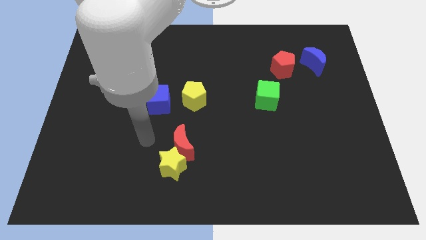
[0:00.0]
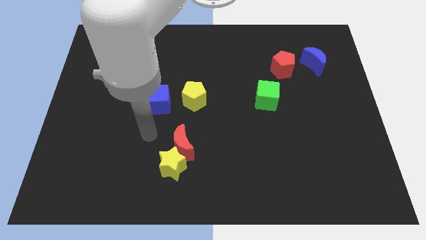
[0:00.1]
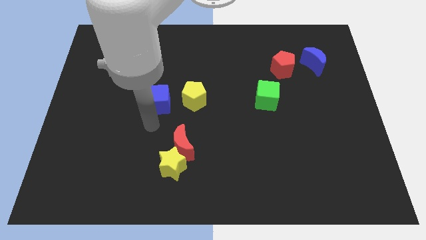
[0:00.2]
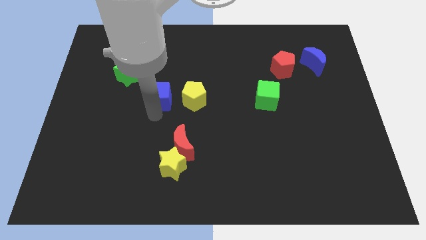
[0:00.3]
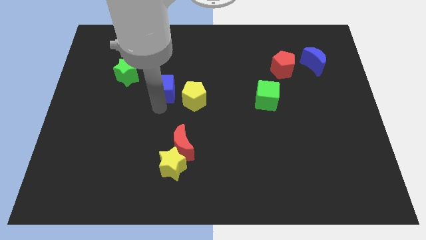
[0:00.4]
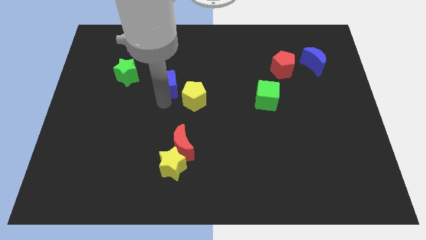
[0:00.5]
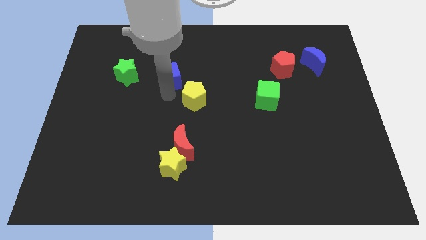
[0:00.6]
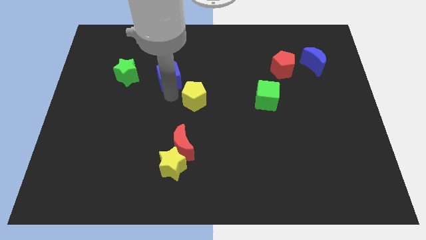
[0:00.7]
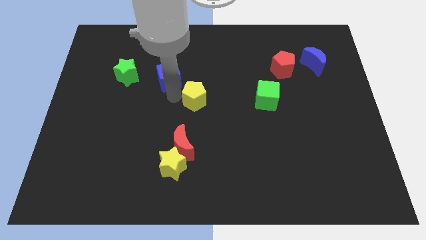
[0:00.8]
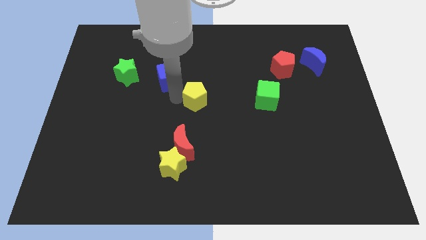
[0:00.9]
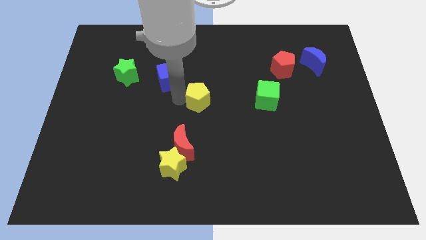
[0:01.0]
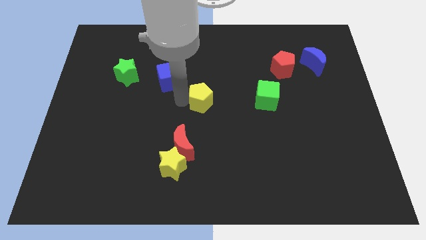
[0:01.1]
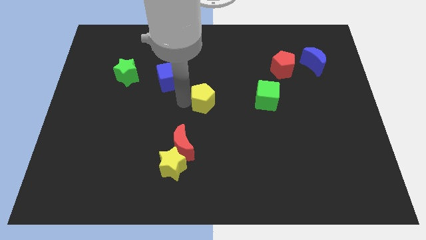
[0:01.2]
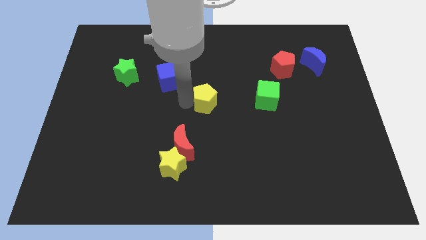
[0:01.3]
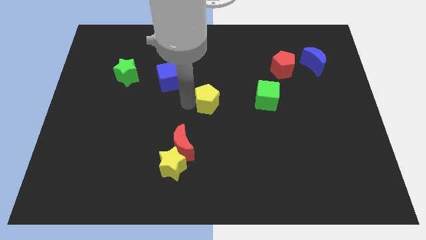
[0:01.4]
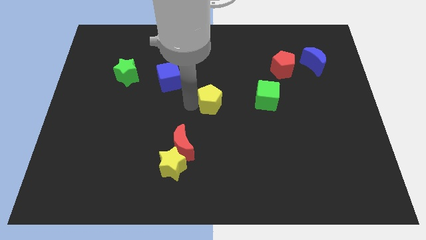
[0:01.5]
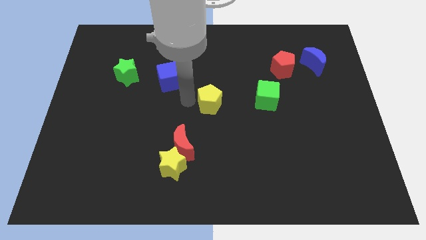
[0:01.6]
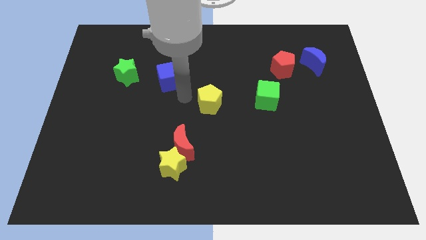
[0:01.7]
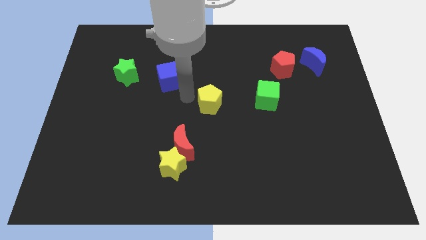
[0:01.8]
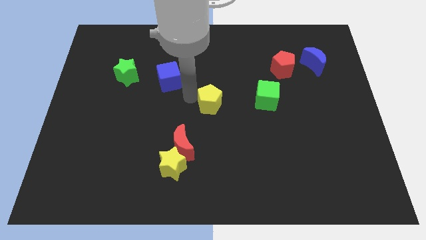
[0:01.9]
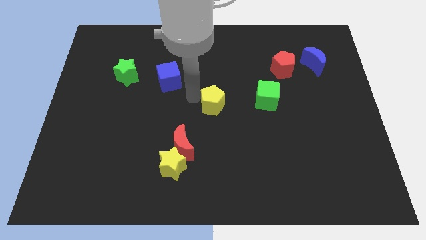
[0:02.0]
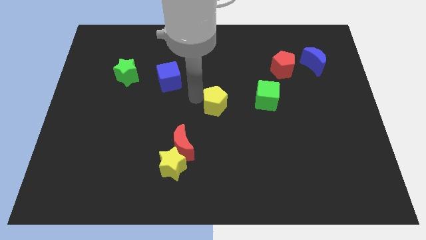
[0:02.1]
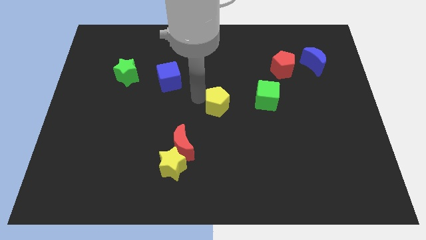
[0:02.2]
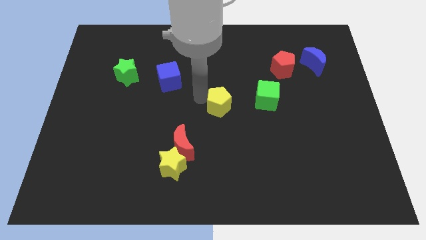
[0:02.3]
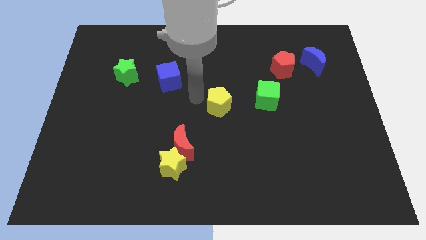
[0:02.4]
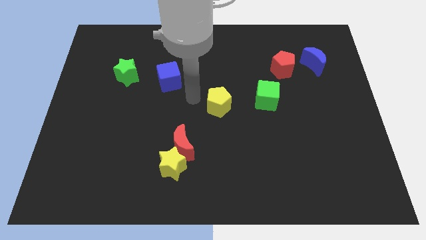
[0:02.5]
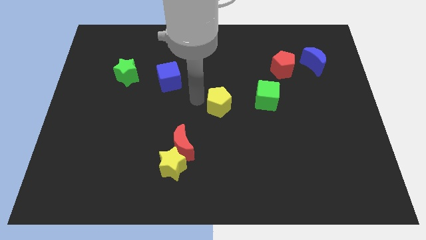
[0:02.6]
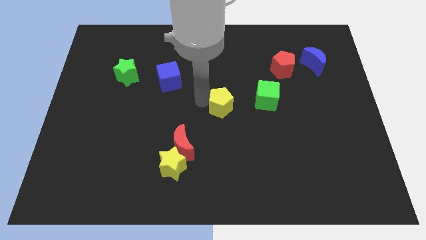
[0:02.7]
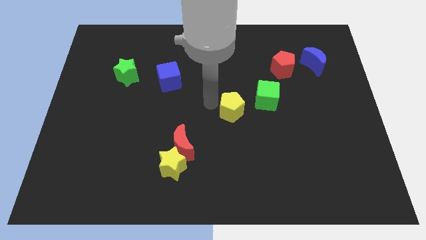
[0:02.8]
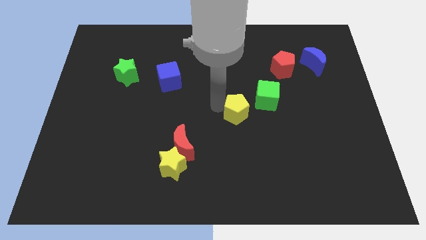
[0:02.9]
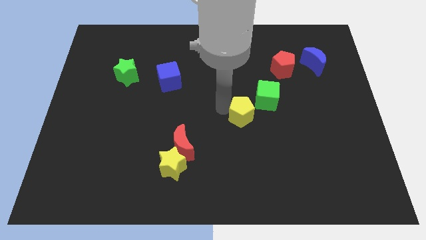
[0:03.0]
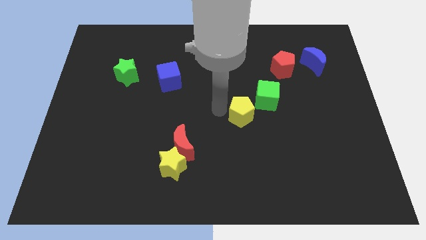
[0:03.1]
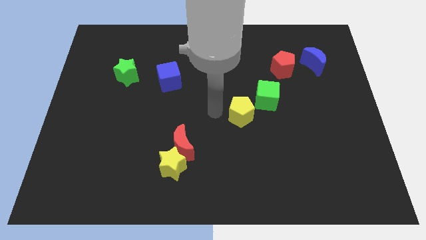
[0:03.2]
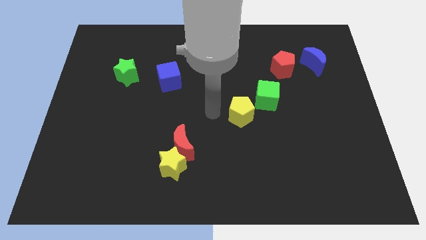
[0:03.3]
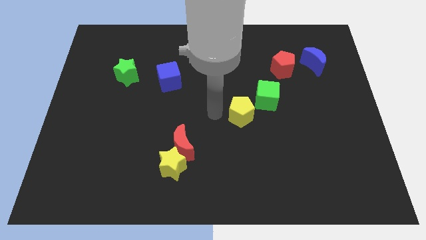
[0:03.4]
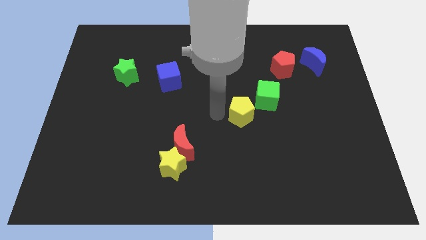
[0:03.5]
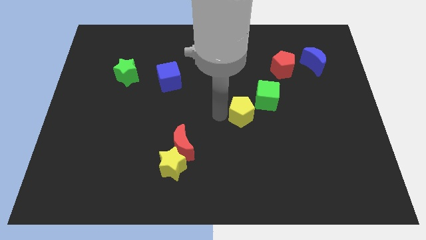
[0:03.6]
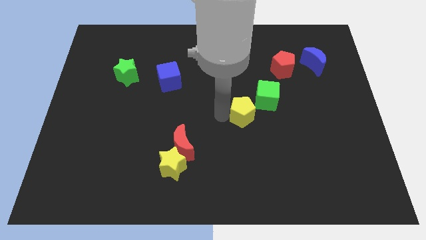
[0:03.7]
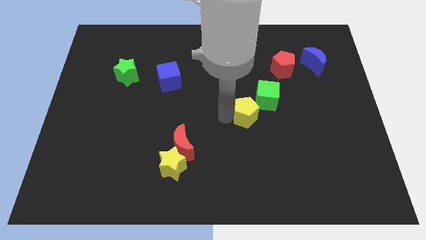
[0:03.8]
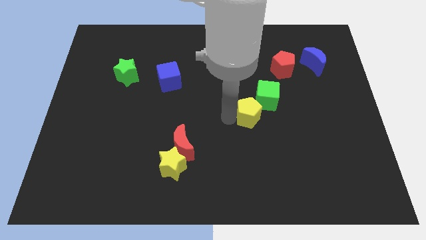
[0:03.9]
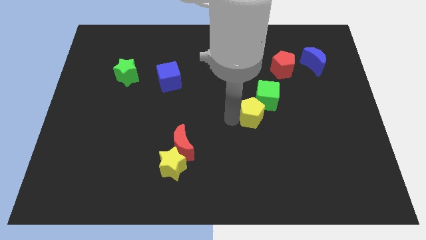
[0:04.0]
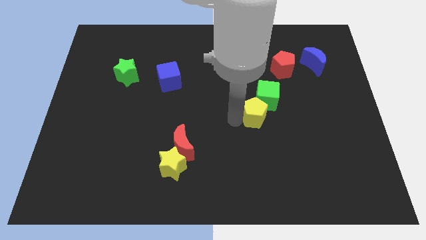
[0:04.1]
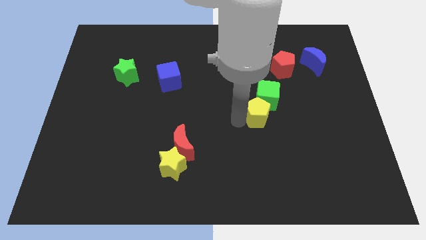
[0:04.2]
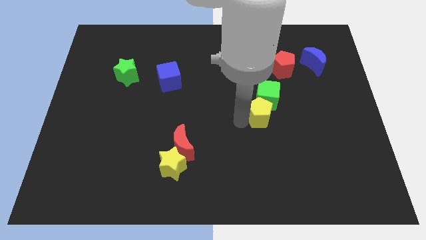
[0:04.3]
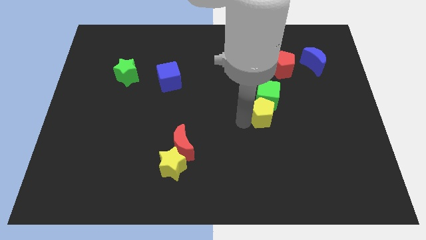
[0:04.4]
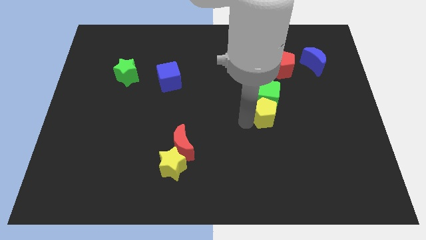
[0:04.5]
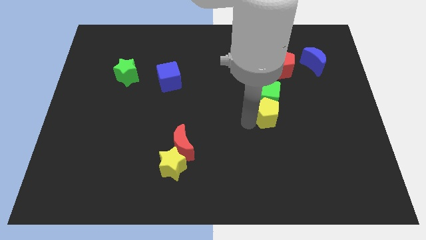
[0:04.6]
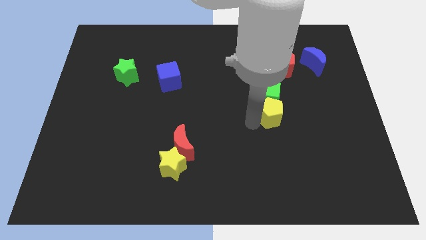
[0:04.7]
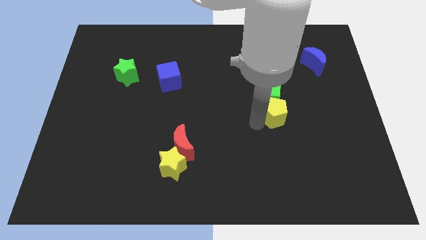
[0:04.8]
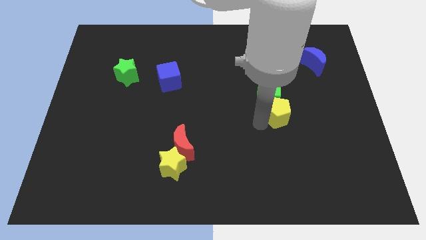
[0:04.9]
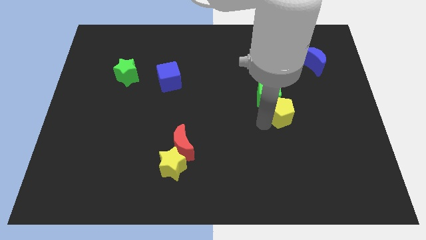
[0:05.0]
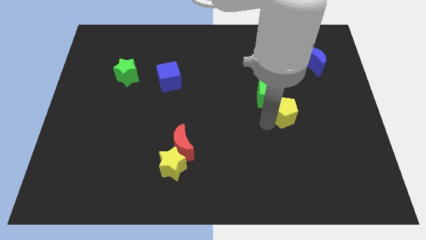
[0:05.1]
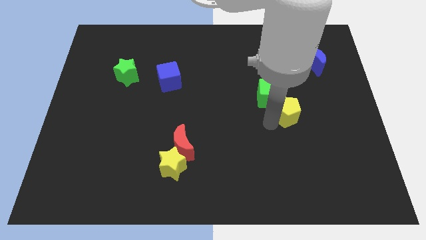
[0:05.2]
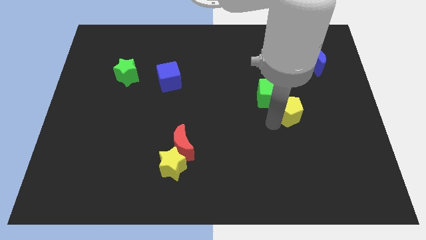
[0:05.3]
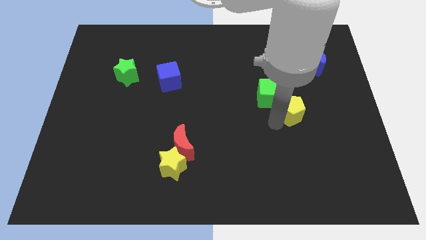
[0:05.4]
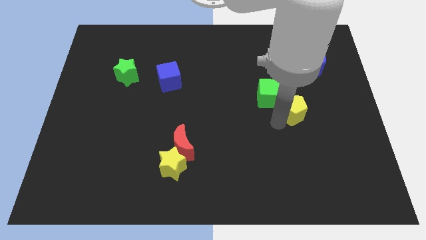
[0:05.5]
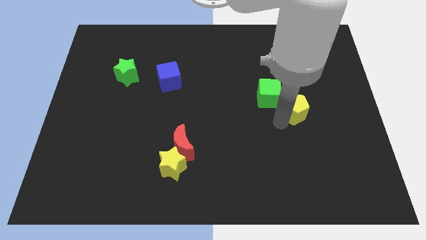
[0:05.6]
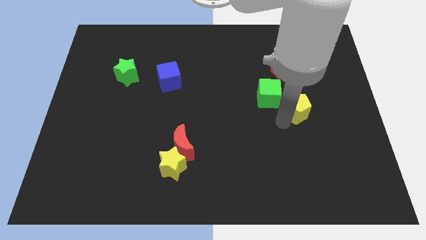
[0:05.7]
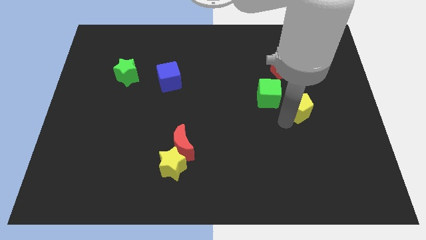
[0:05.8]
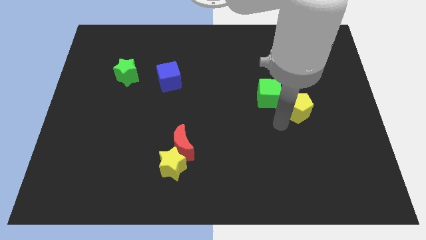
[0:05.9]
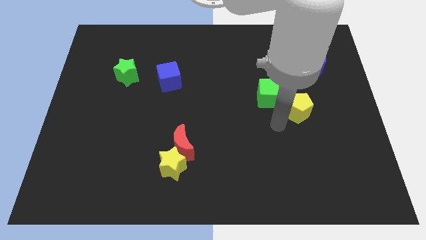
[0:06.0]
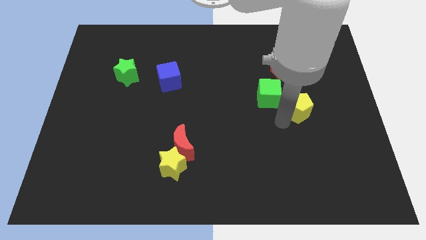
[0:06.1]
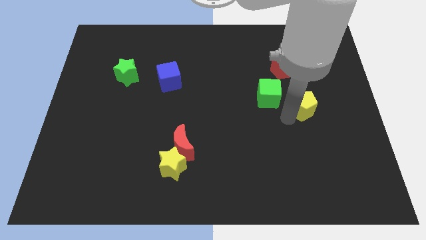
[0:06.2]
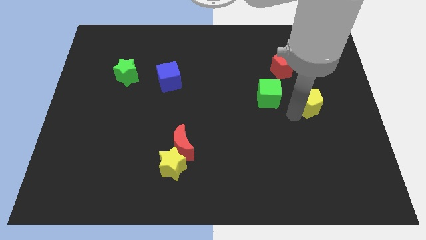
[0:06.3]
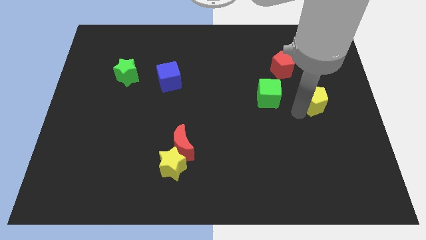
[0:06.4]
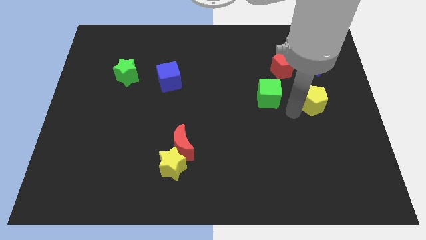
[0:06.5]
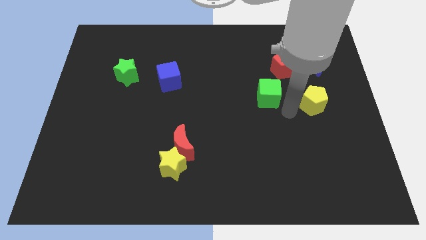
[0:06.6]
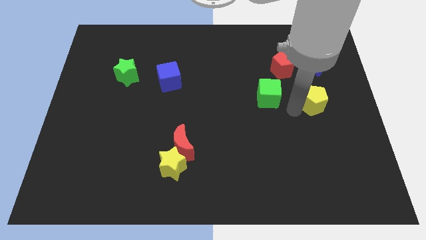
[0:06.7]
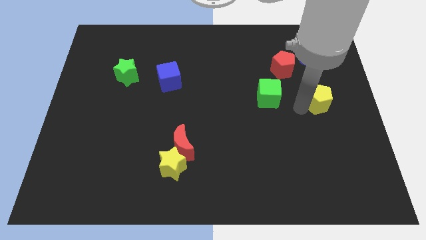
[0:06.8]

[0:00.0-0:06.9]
push the yellow pentagon to the right side of the board

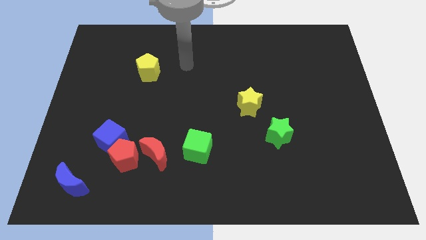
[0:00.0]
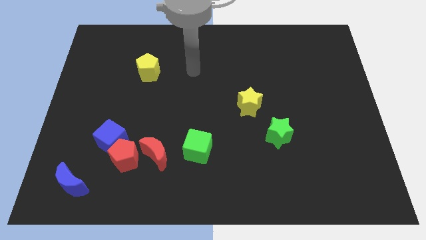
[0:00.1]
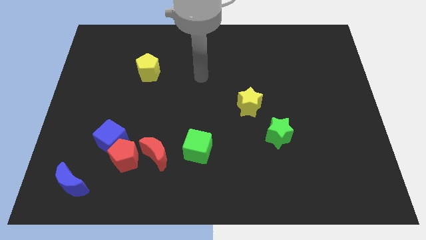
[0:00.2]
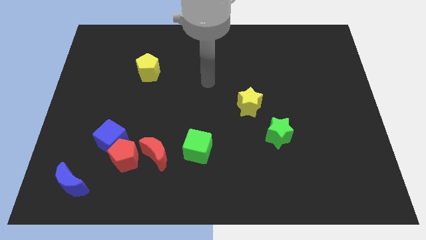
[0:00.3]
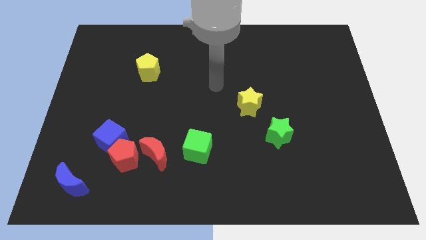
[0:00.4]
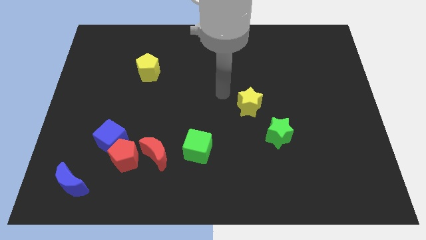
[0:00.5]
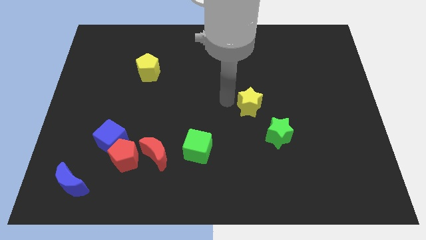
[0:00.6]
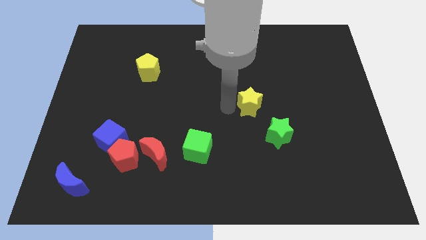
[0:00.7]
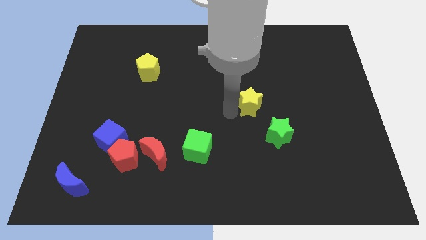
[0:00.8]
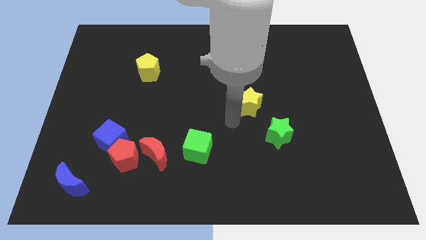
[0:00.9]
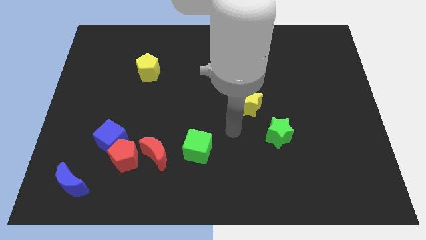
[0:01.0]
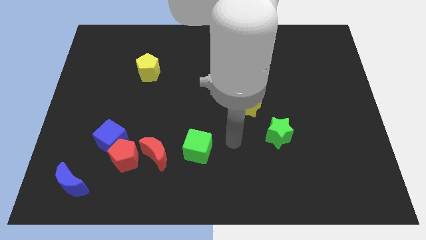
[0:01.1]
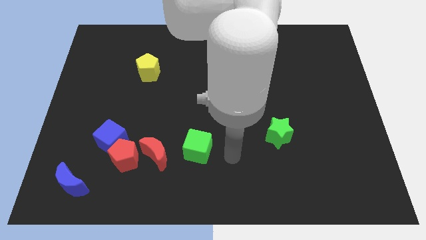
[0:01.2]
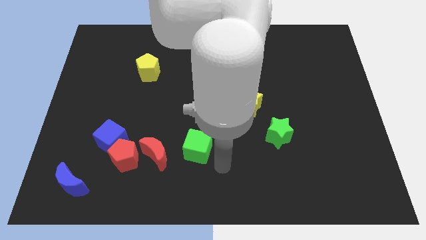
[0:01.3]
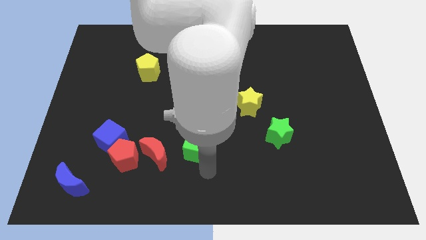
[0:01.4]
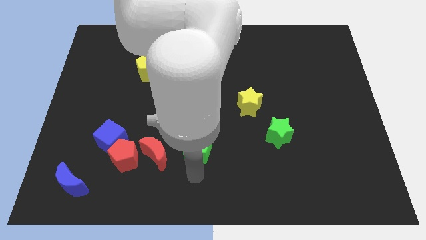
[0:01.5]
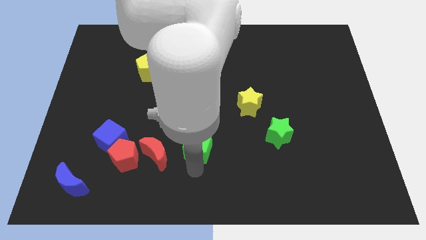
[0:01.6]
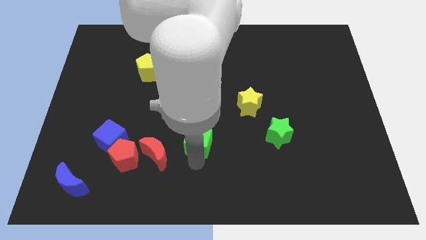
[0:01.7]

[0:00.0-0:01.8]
push the green cube to the center of the board
